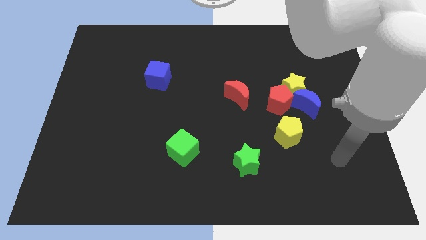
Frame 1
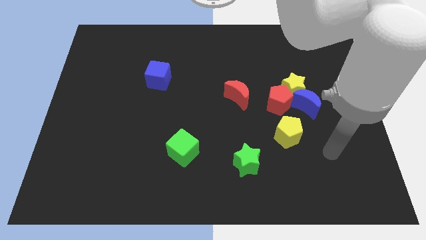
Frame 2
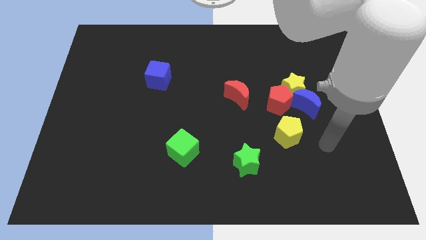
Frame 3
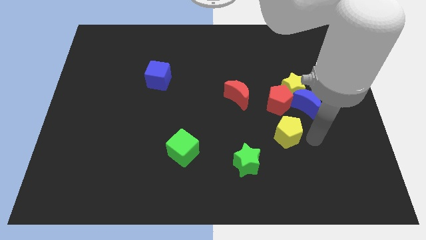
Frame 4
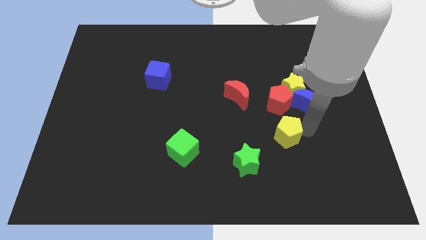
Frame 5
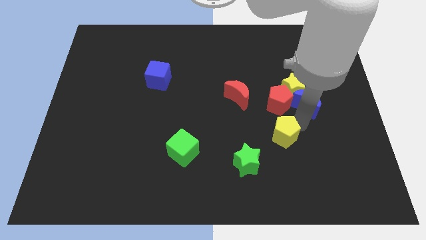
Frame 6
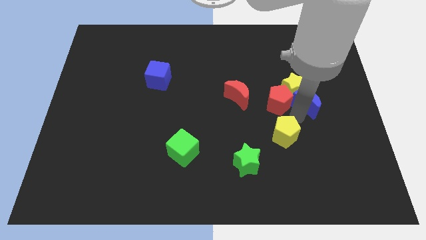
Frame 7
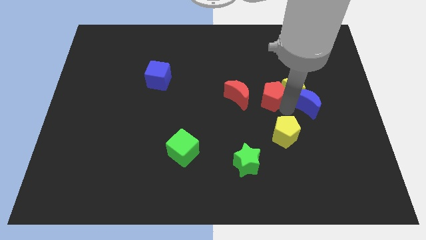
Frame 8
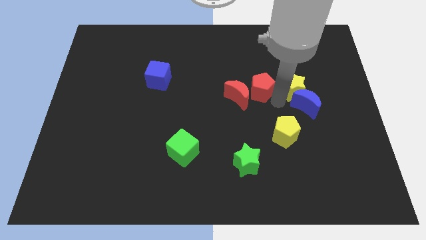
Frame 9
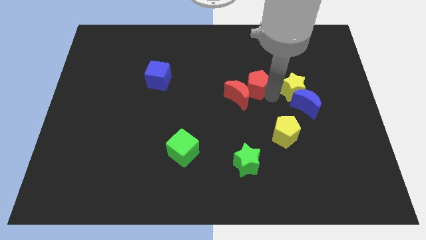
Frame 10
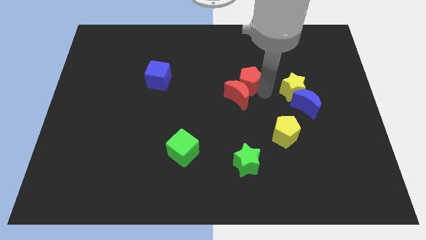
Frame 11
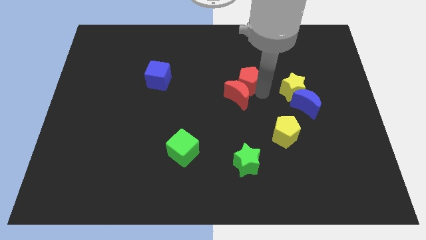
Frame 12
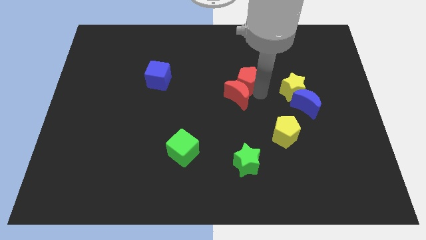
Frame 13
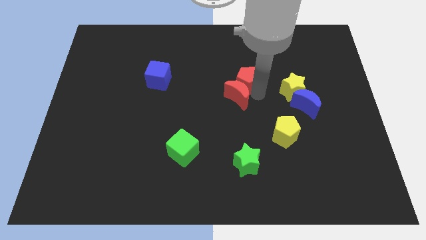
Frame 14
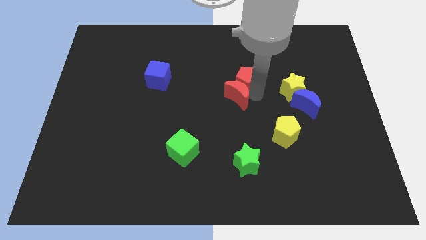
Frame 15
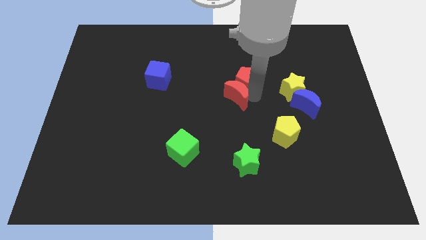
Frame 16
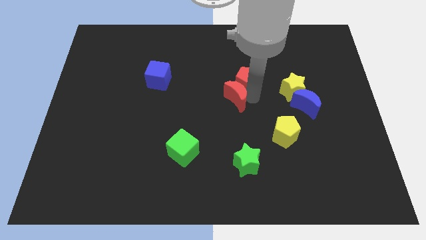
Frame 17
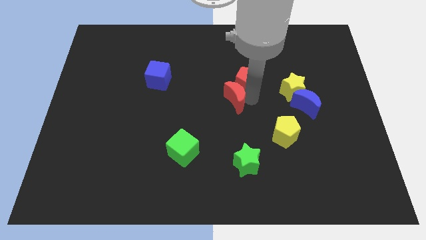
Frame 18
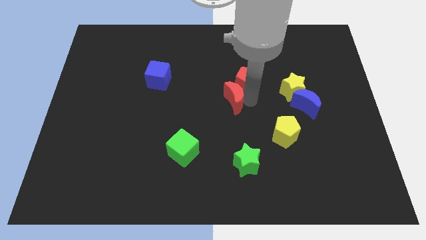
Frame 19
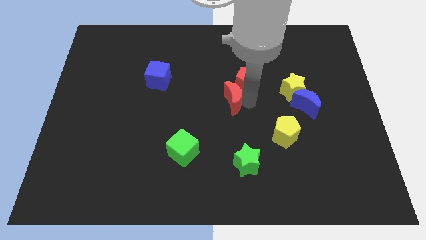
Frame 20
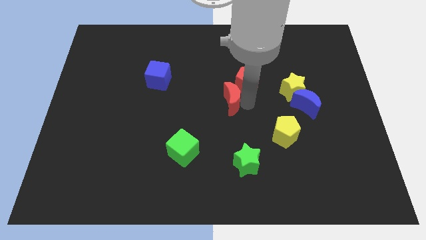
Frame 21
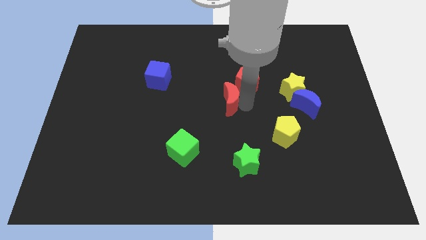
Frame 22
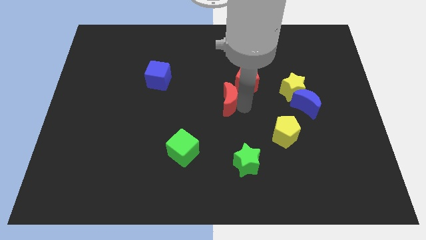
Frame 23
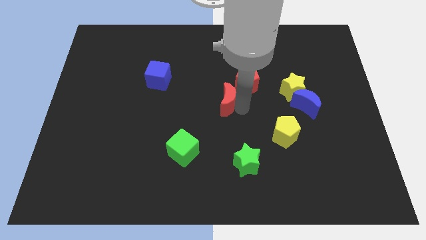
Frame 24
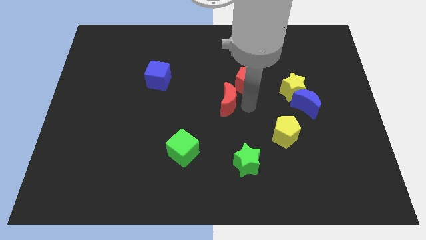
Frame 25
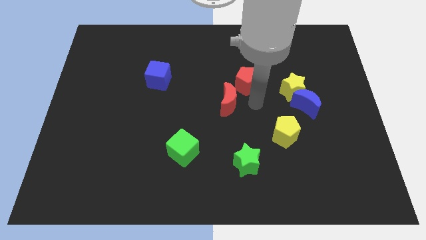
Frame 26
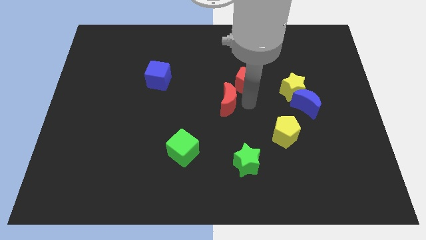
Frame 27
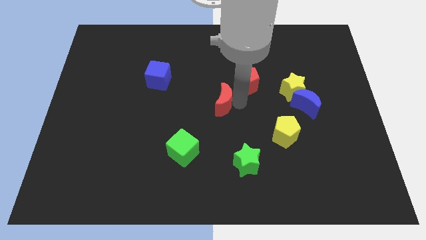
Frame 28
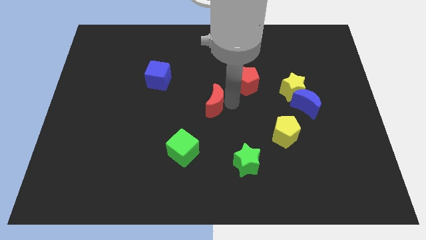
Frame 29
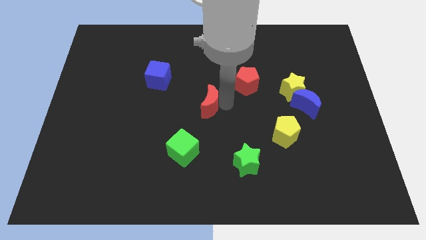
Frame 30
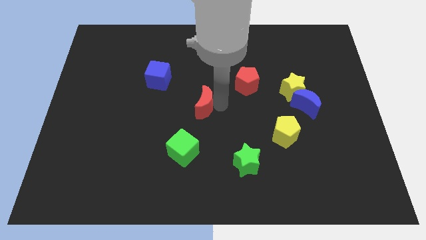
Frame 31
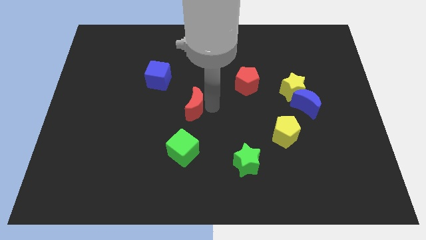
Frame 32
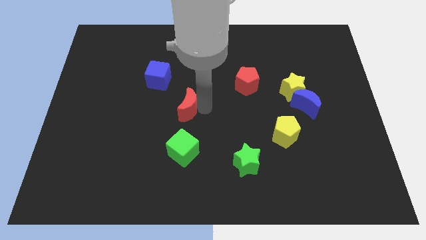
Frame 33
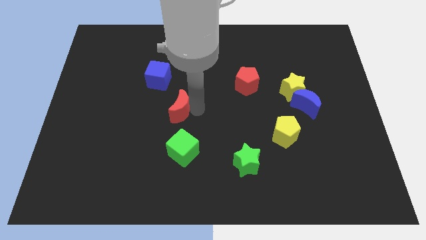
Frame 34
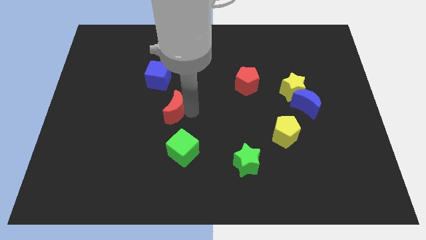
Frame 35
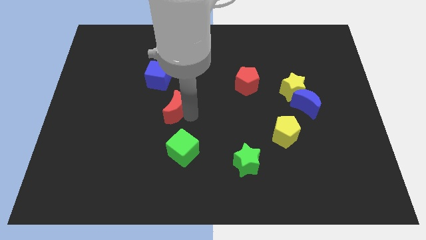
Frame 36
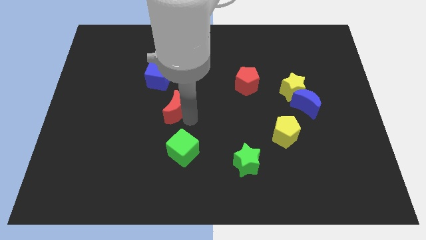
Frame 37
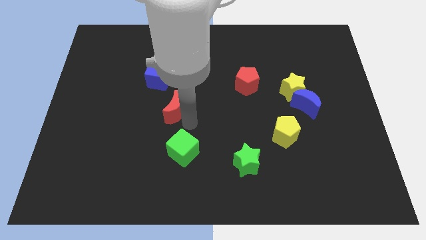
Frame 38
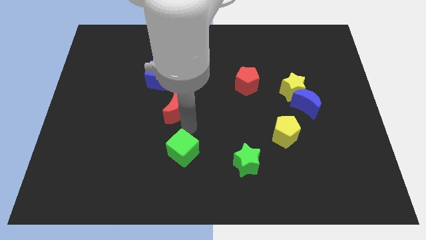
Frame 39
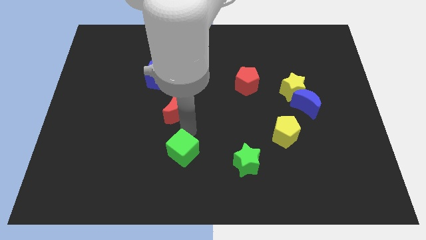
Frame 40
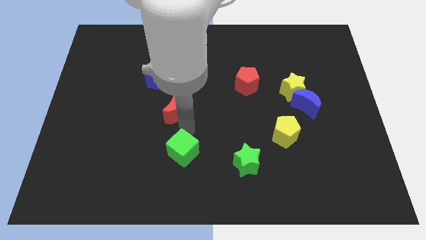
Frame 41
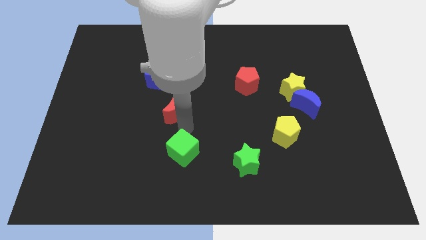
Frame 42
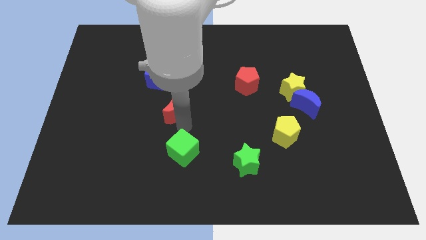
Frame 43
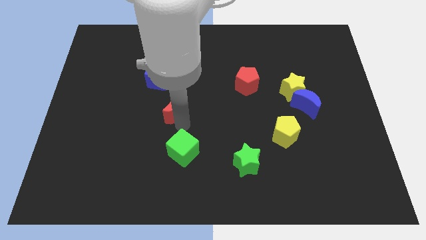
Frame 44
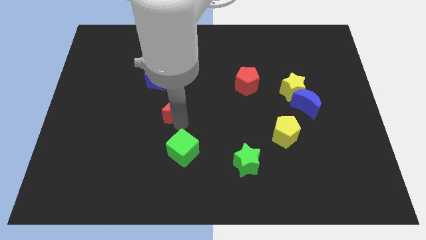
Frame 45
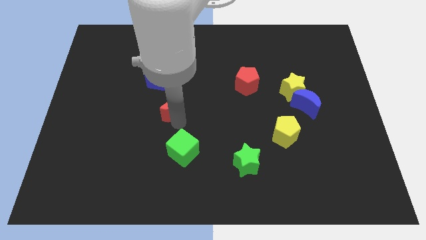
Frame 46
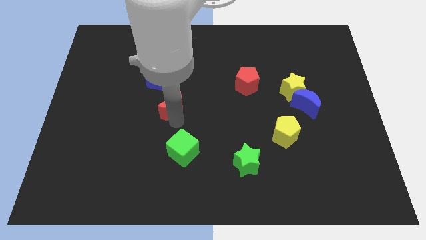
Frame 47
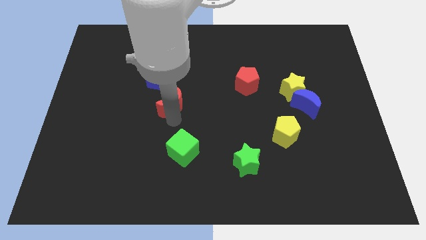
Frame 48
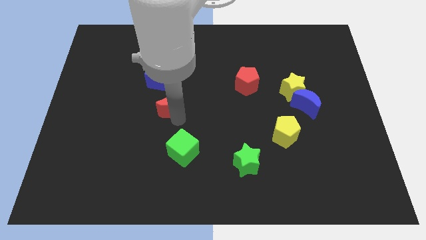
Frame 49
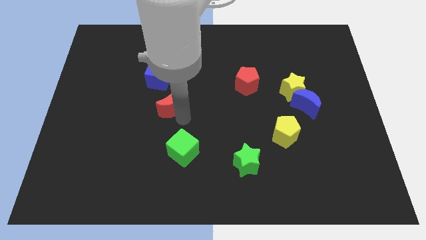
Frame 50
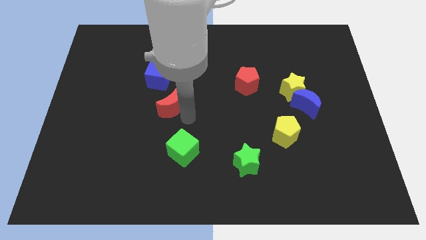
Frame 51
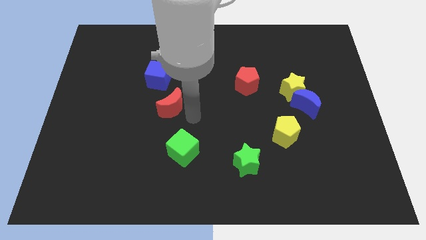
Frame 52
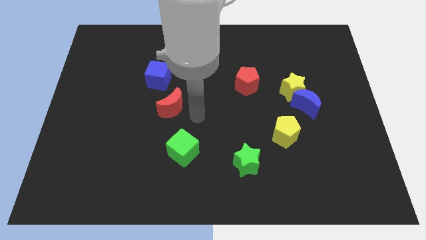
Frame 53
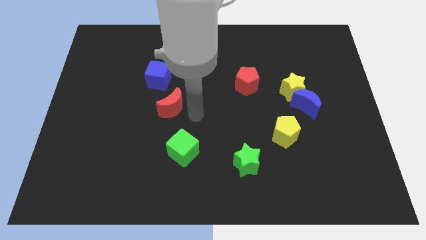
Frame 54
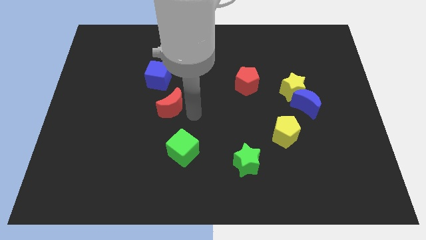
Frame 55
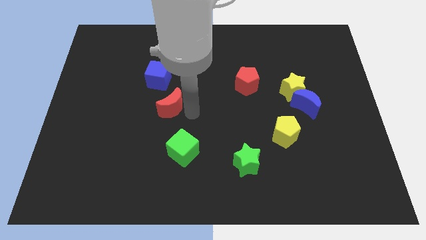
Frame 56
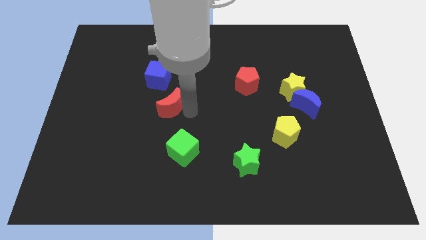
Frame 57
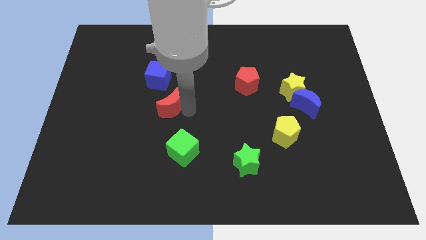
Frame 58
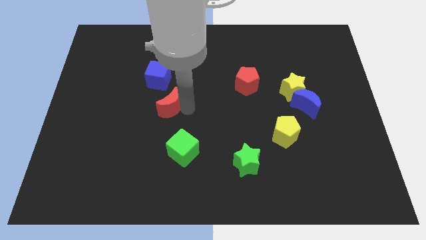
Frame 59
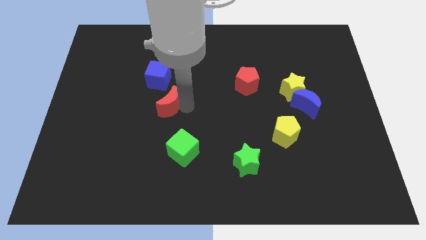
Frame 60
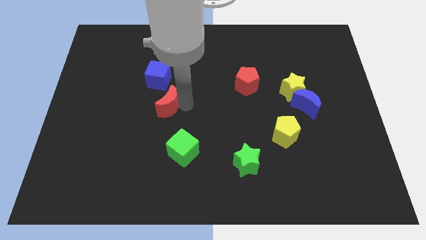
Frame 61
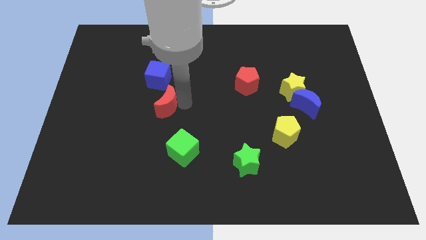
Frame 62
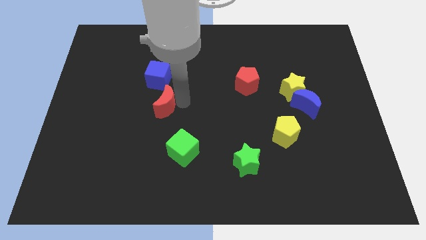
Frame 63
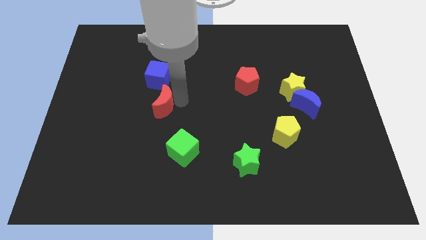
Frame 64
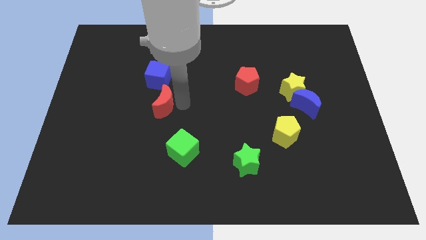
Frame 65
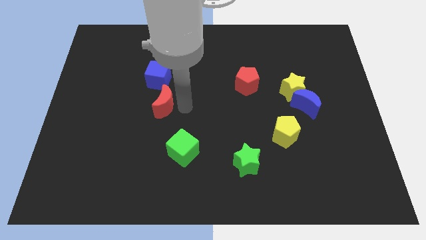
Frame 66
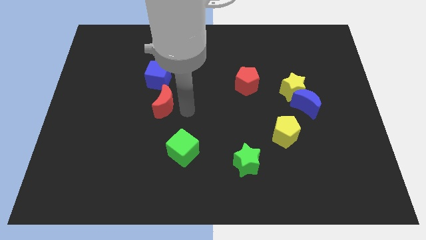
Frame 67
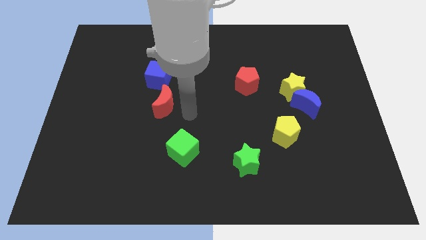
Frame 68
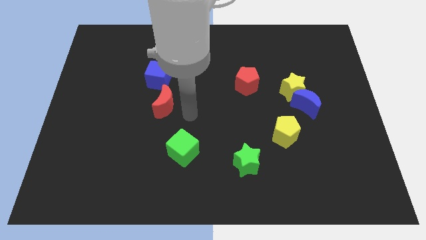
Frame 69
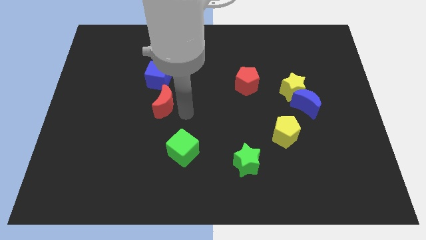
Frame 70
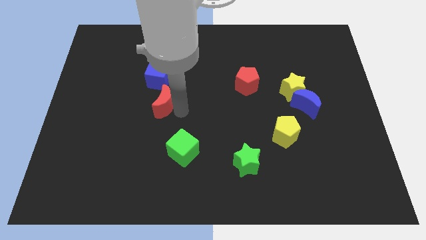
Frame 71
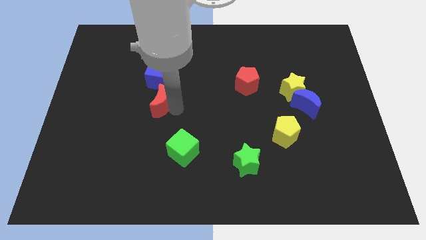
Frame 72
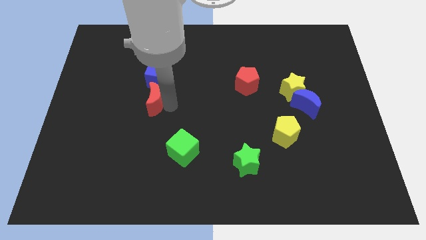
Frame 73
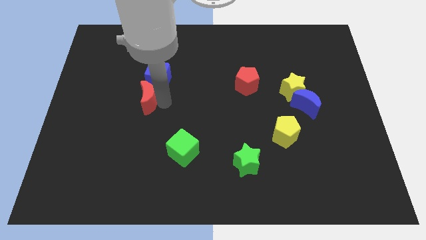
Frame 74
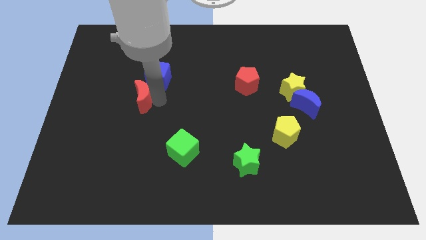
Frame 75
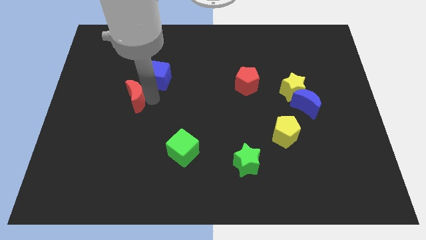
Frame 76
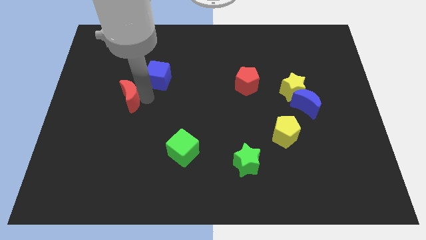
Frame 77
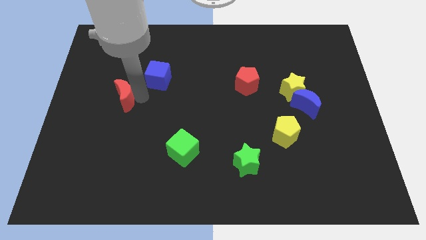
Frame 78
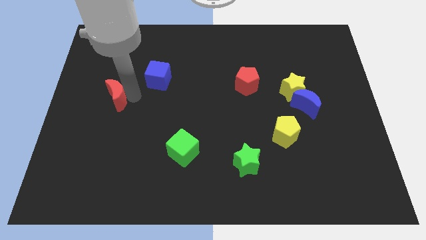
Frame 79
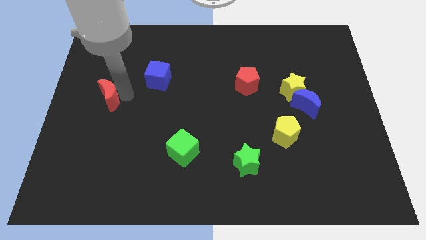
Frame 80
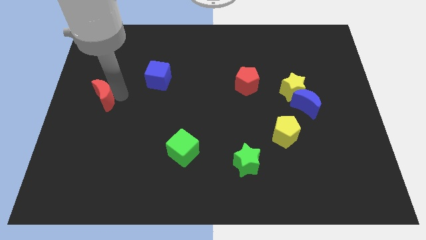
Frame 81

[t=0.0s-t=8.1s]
move the red moon to the left side
